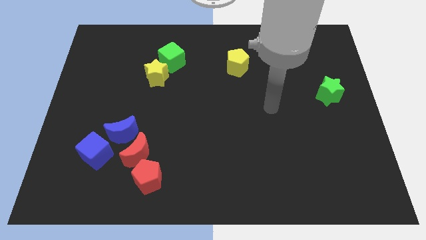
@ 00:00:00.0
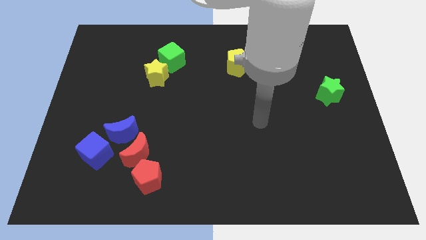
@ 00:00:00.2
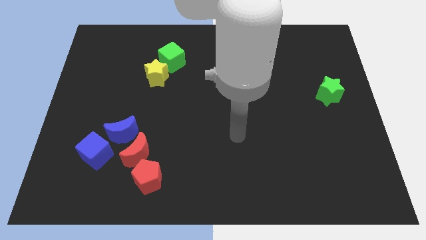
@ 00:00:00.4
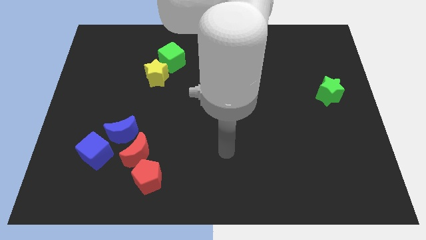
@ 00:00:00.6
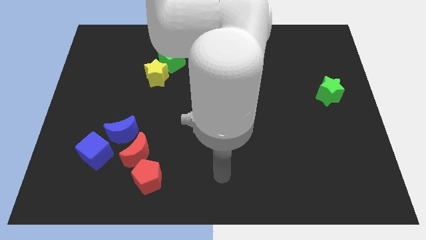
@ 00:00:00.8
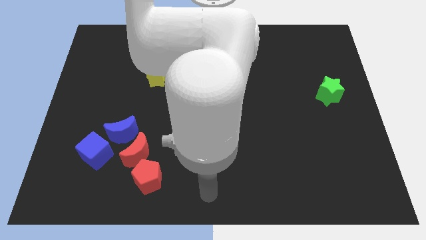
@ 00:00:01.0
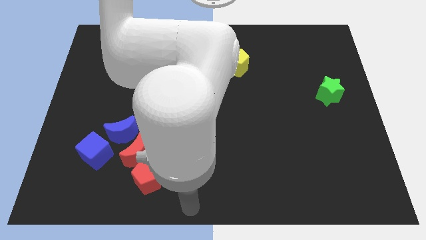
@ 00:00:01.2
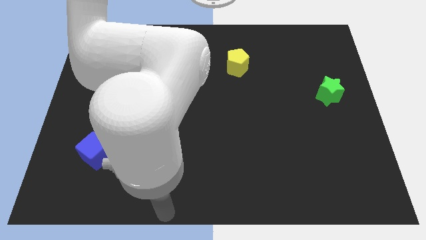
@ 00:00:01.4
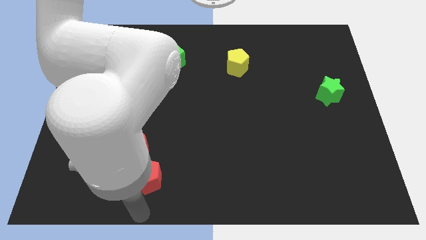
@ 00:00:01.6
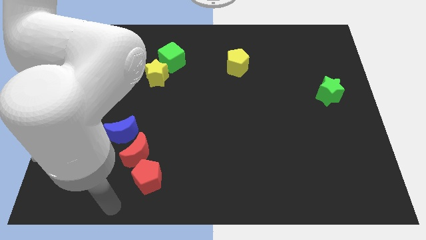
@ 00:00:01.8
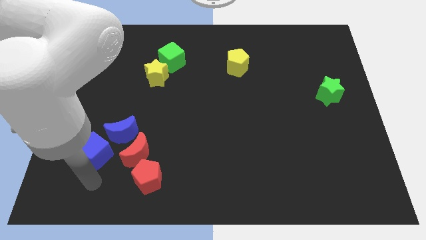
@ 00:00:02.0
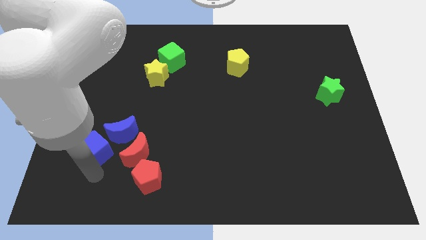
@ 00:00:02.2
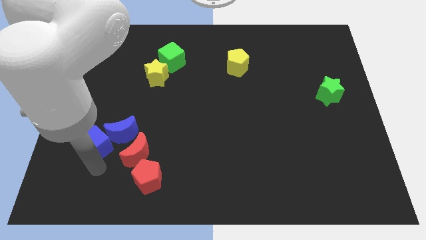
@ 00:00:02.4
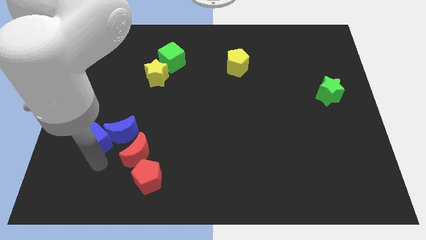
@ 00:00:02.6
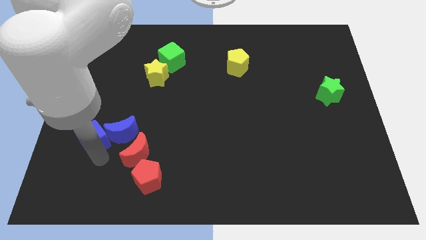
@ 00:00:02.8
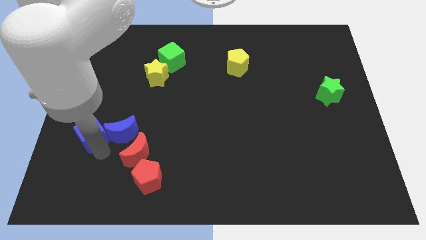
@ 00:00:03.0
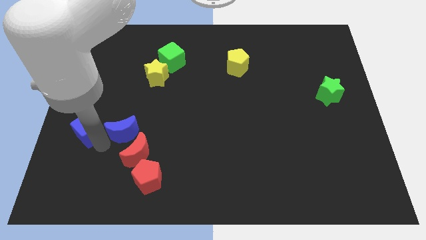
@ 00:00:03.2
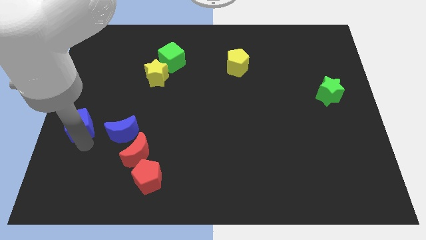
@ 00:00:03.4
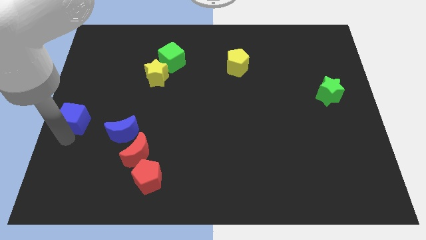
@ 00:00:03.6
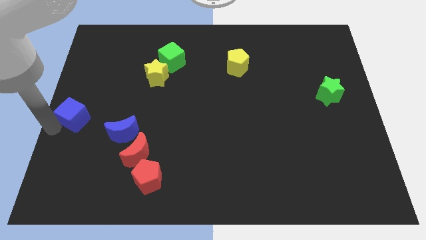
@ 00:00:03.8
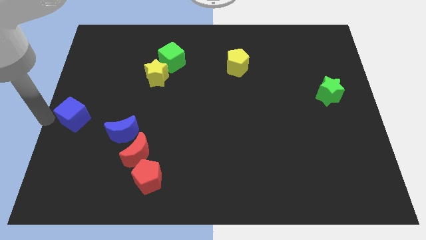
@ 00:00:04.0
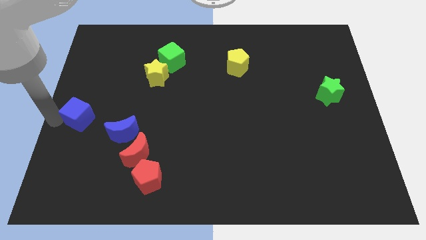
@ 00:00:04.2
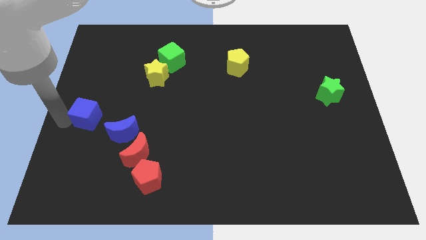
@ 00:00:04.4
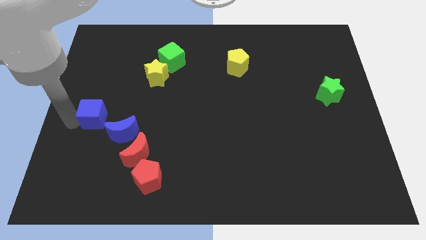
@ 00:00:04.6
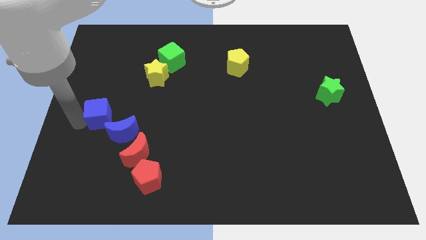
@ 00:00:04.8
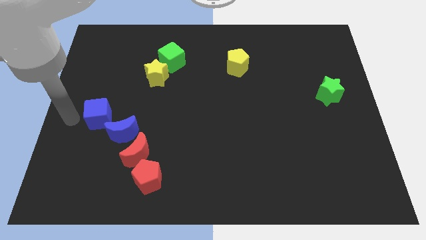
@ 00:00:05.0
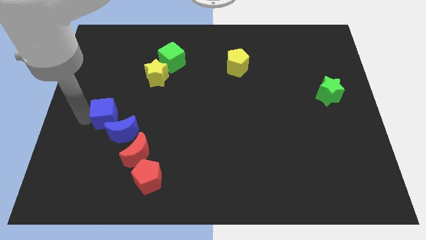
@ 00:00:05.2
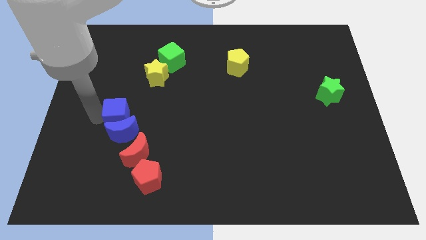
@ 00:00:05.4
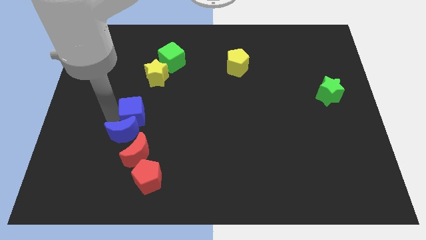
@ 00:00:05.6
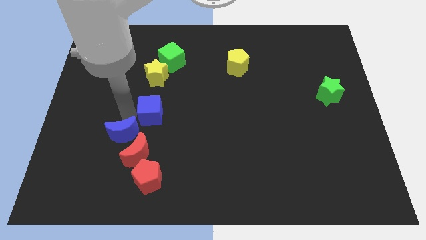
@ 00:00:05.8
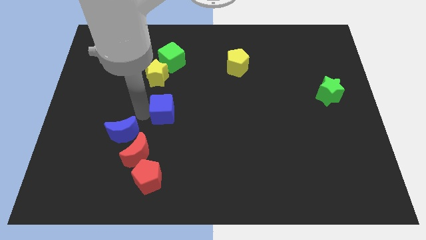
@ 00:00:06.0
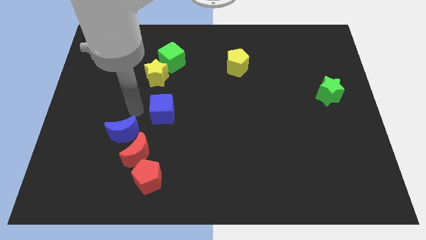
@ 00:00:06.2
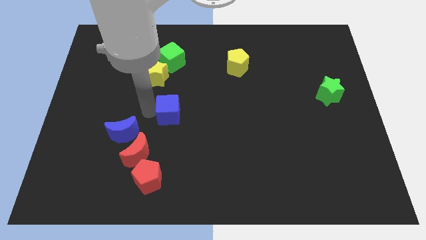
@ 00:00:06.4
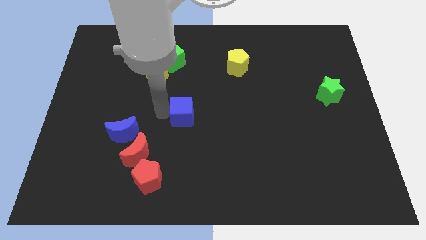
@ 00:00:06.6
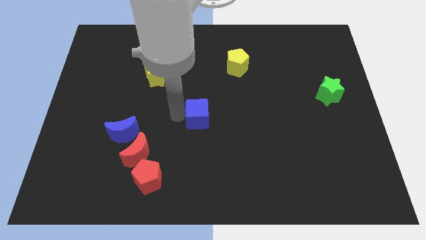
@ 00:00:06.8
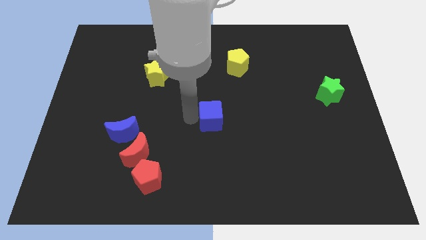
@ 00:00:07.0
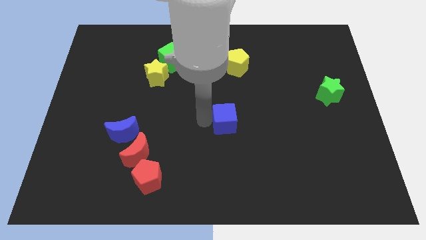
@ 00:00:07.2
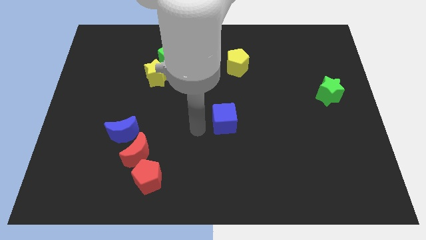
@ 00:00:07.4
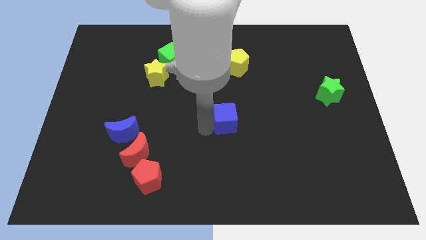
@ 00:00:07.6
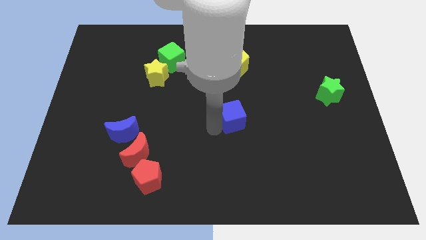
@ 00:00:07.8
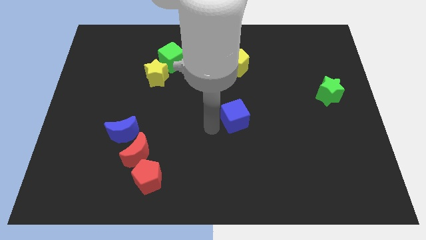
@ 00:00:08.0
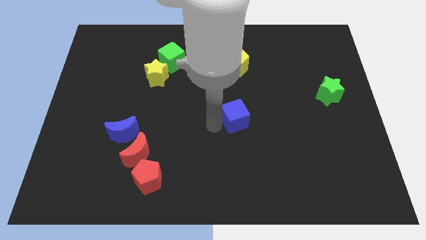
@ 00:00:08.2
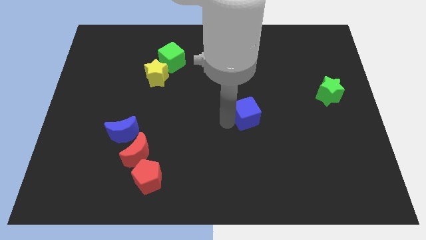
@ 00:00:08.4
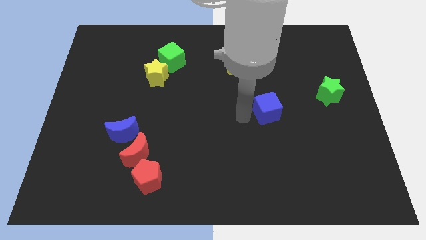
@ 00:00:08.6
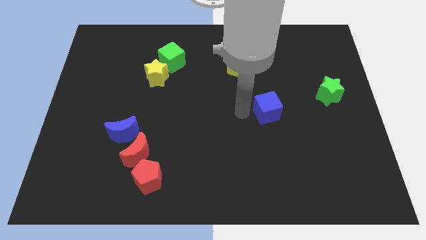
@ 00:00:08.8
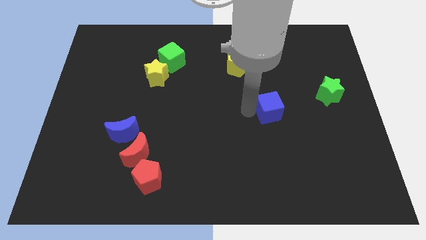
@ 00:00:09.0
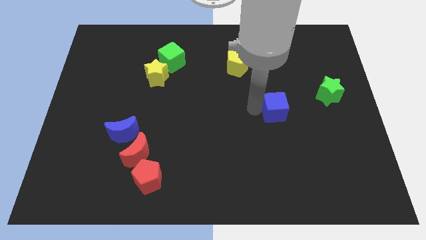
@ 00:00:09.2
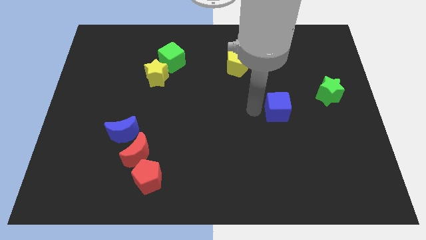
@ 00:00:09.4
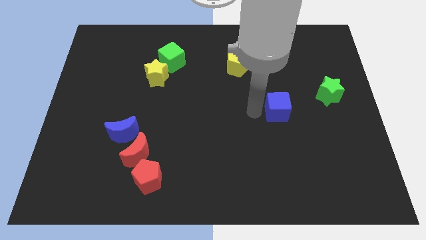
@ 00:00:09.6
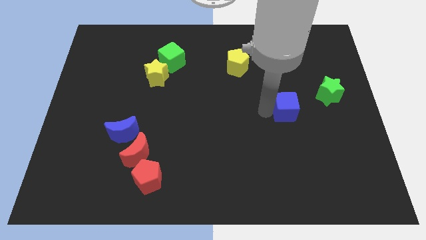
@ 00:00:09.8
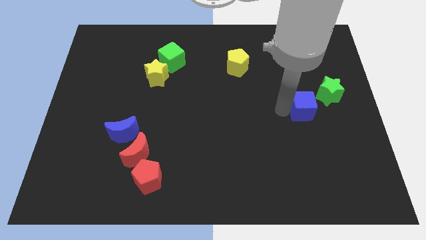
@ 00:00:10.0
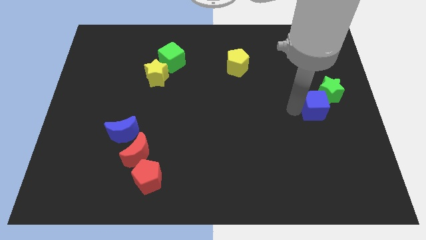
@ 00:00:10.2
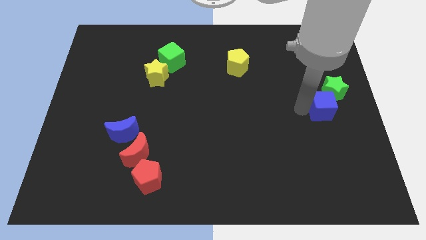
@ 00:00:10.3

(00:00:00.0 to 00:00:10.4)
move the blue cube to the right side

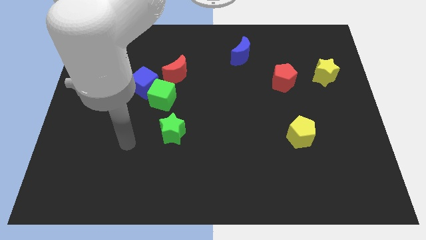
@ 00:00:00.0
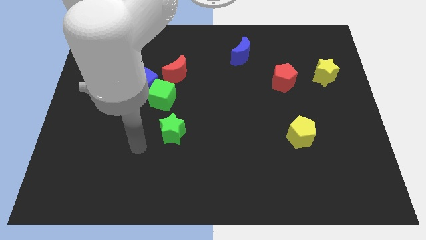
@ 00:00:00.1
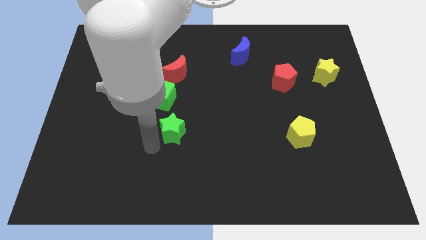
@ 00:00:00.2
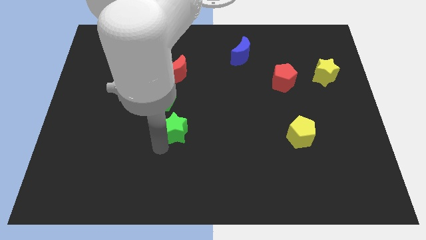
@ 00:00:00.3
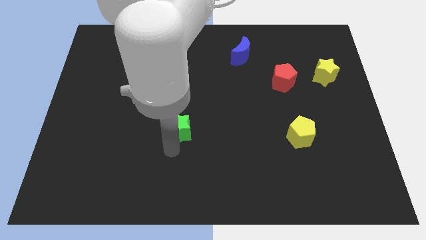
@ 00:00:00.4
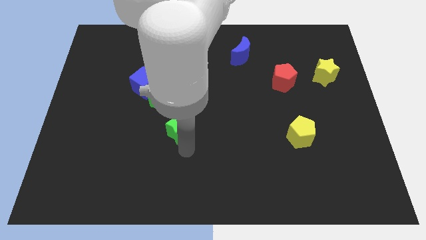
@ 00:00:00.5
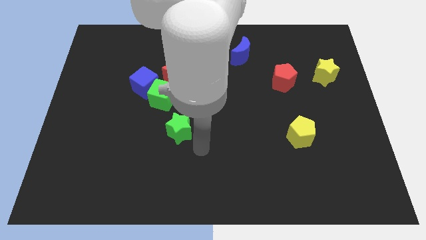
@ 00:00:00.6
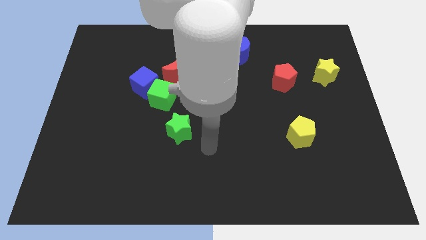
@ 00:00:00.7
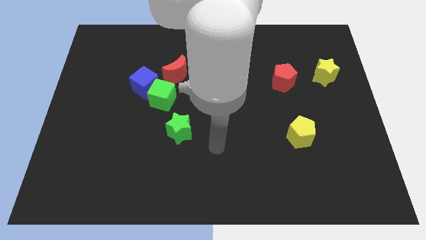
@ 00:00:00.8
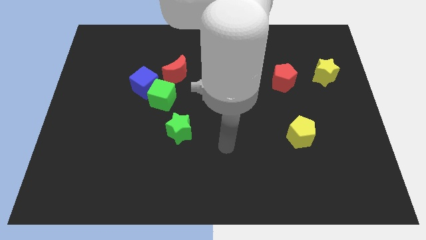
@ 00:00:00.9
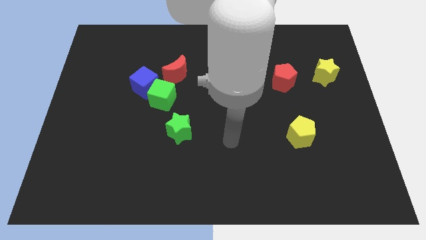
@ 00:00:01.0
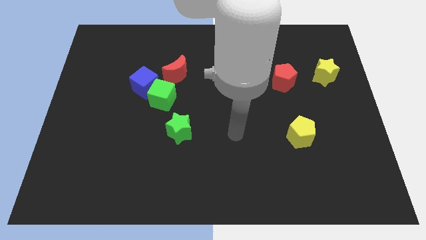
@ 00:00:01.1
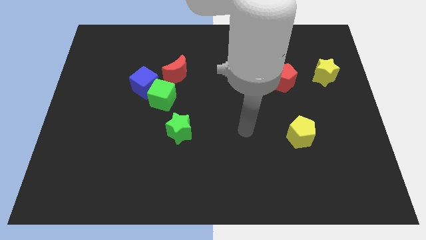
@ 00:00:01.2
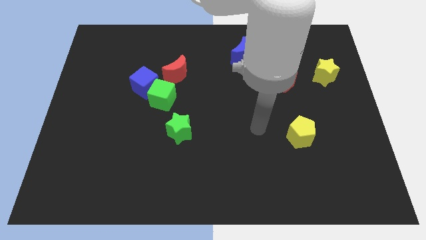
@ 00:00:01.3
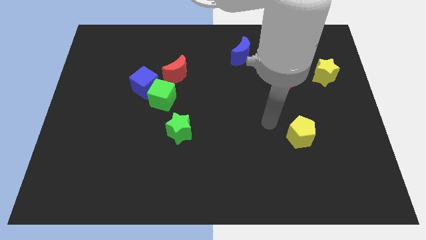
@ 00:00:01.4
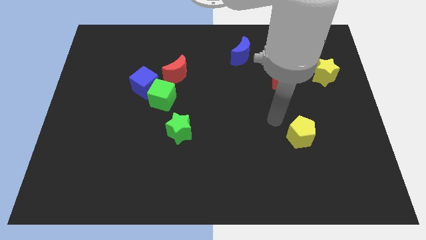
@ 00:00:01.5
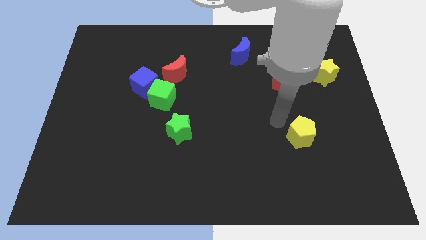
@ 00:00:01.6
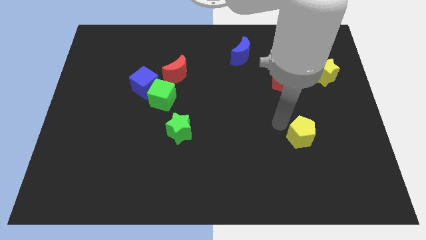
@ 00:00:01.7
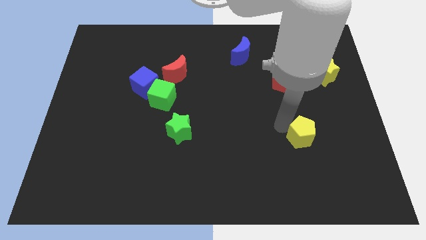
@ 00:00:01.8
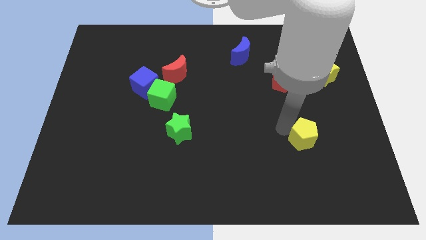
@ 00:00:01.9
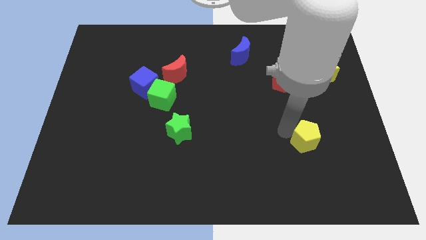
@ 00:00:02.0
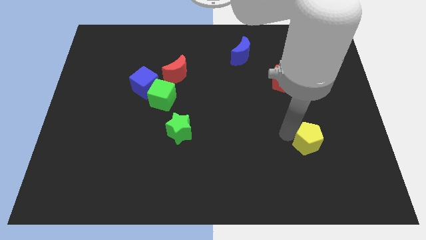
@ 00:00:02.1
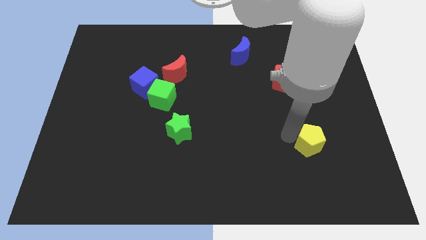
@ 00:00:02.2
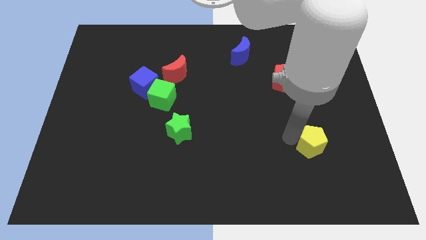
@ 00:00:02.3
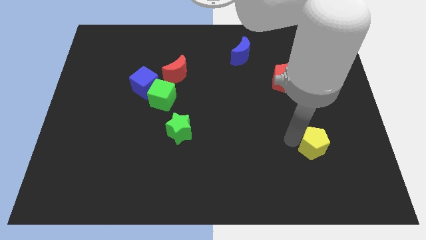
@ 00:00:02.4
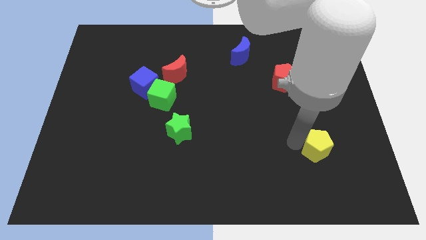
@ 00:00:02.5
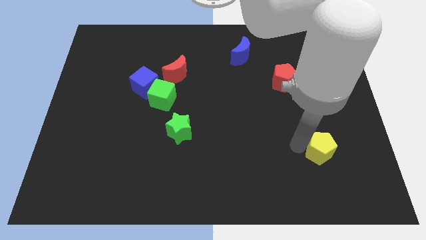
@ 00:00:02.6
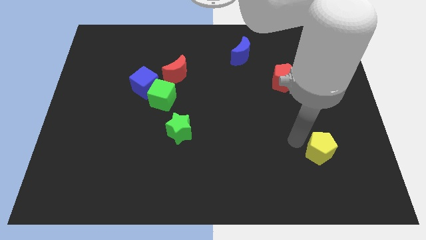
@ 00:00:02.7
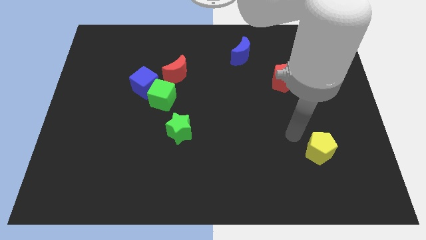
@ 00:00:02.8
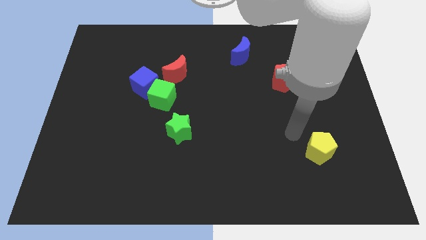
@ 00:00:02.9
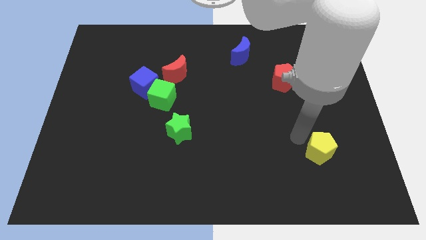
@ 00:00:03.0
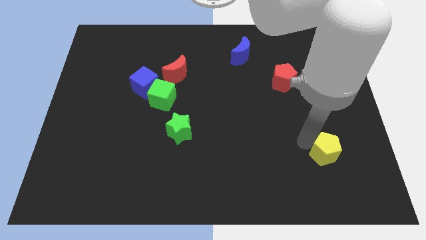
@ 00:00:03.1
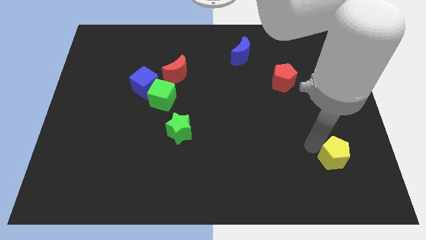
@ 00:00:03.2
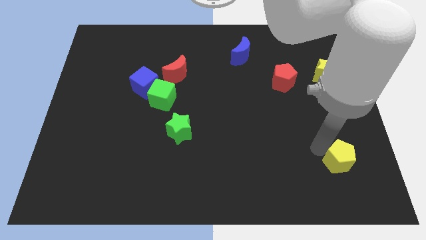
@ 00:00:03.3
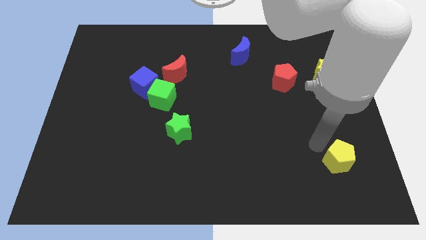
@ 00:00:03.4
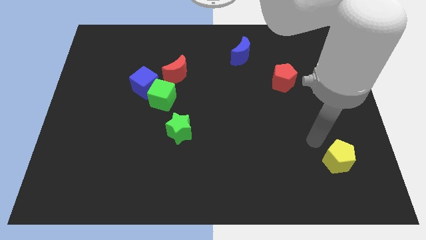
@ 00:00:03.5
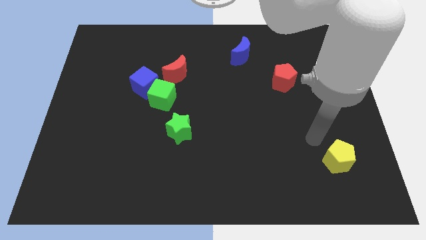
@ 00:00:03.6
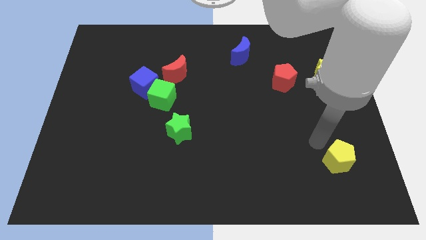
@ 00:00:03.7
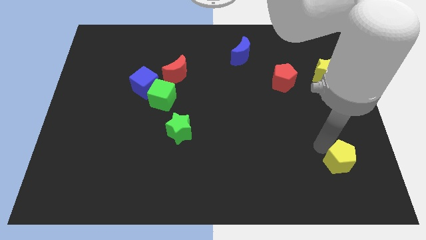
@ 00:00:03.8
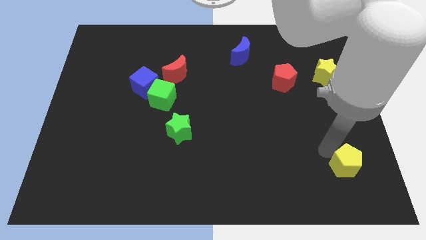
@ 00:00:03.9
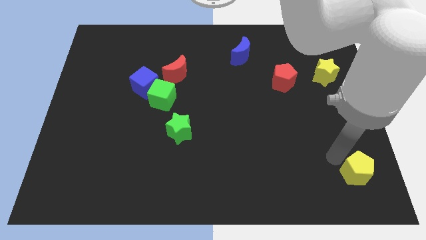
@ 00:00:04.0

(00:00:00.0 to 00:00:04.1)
move the yellow pentagon to the bottom right of the board
